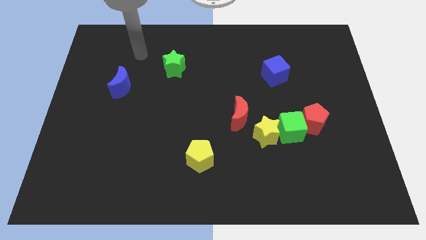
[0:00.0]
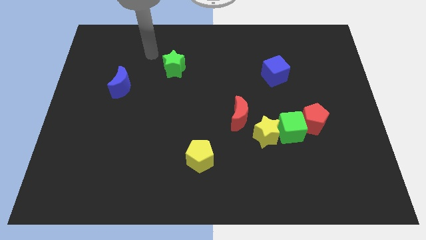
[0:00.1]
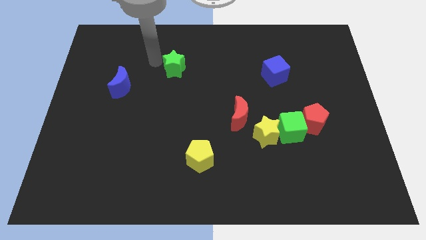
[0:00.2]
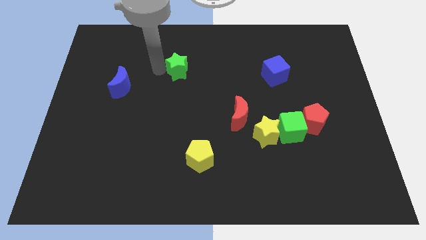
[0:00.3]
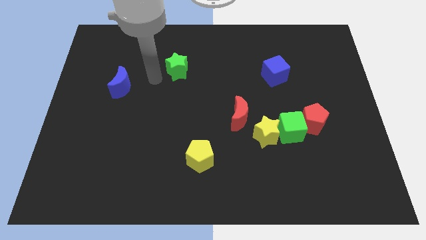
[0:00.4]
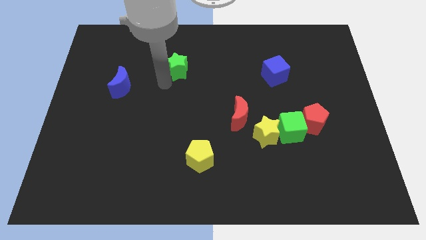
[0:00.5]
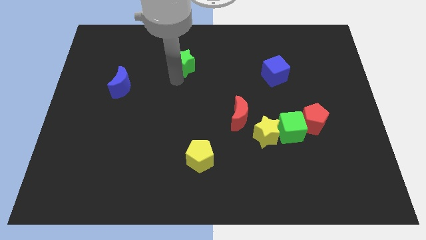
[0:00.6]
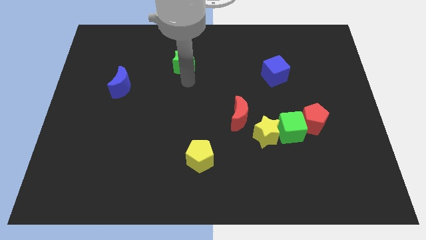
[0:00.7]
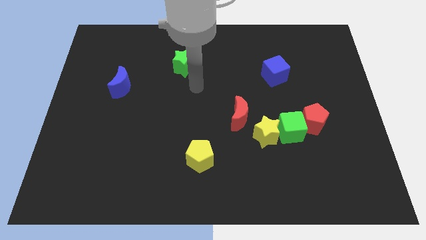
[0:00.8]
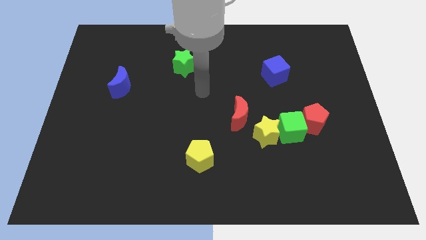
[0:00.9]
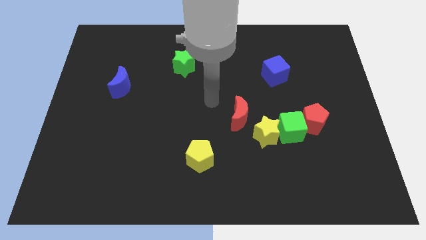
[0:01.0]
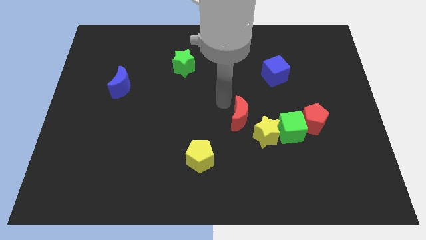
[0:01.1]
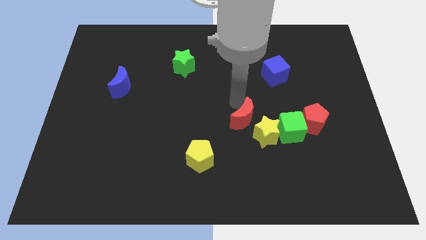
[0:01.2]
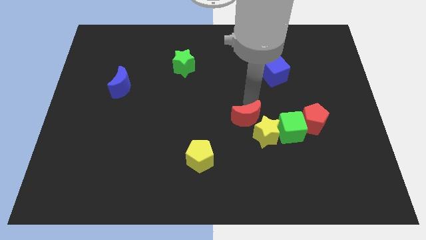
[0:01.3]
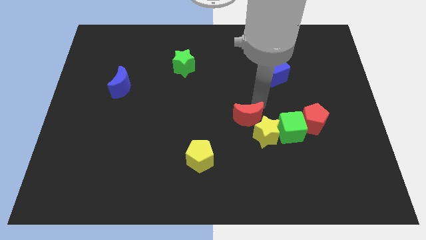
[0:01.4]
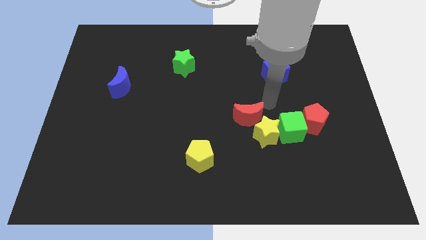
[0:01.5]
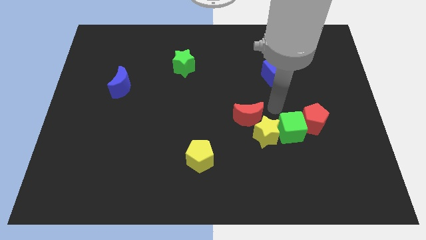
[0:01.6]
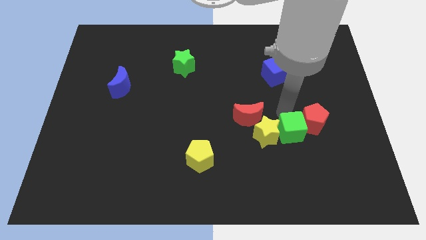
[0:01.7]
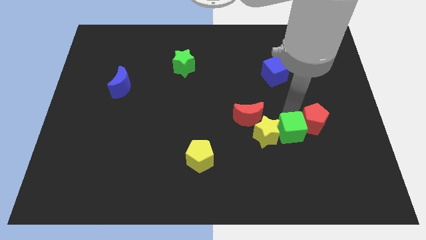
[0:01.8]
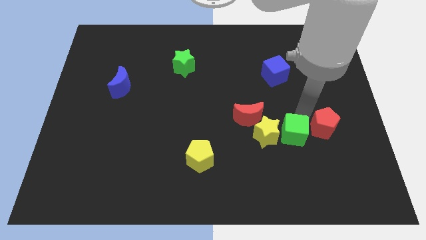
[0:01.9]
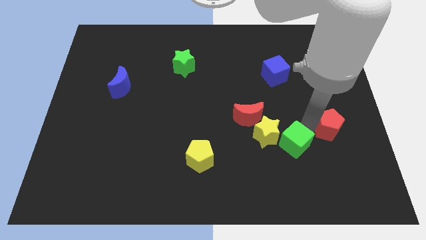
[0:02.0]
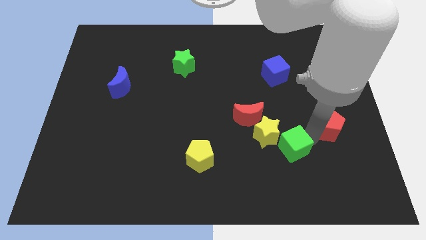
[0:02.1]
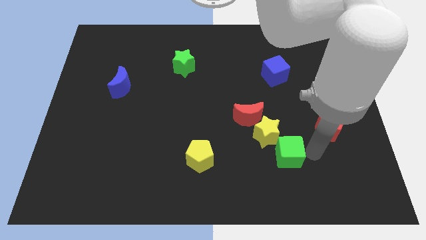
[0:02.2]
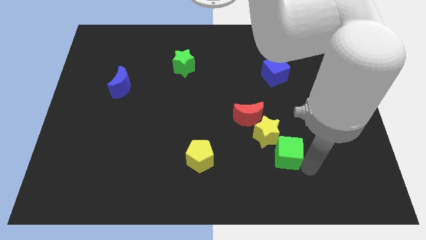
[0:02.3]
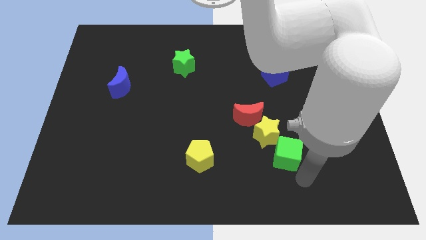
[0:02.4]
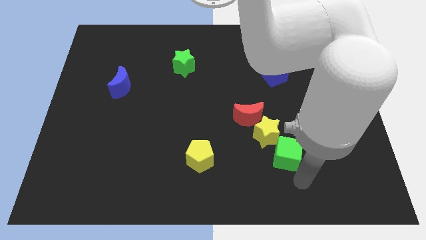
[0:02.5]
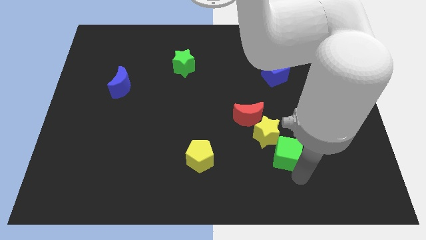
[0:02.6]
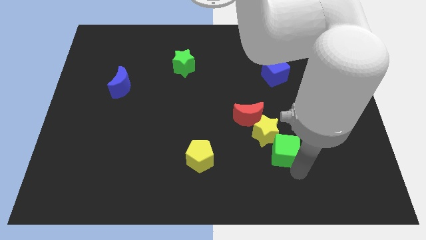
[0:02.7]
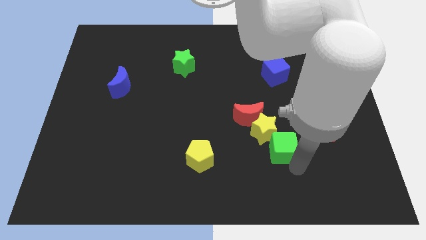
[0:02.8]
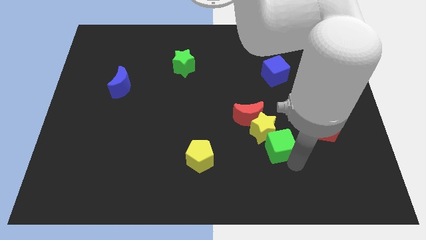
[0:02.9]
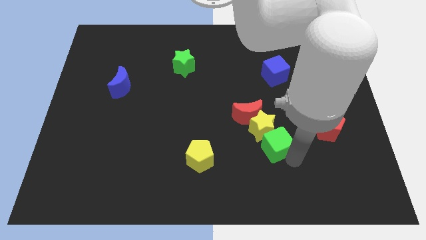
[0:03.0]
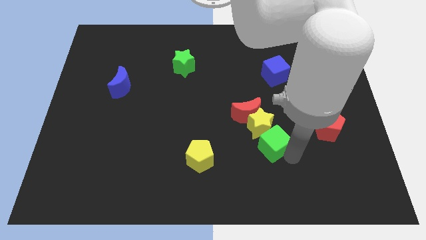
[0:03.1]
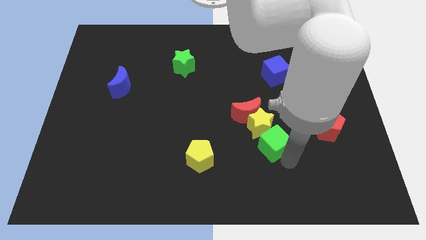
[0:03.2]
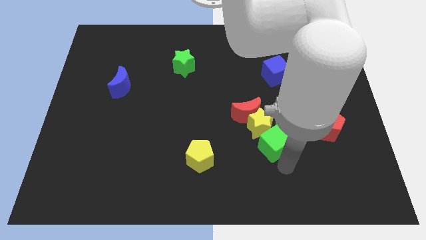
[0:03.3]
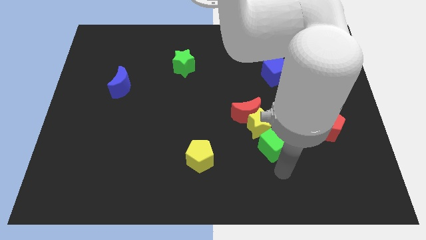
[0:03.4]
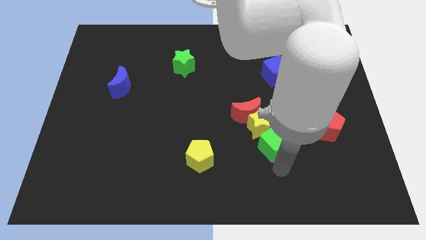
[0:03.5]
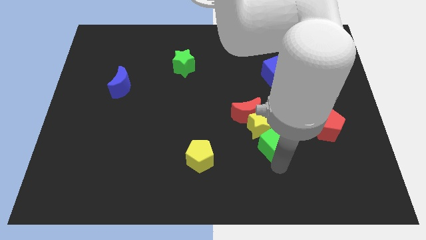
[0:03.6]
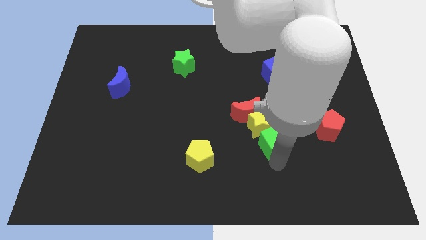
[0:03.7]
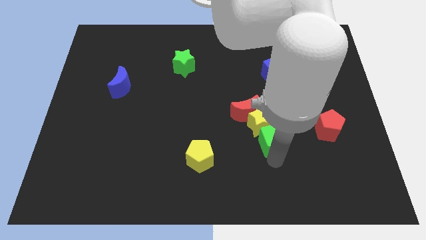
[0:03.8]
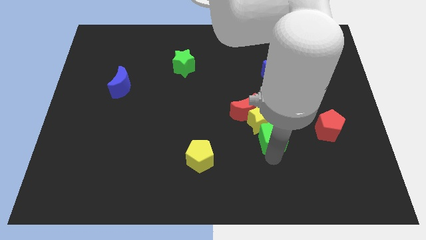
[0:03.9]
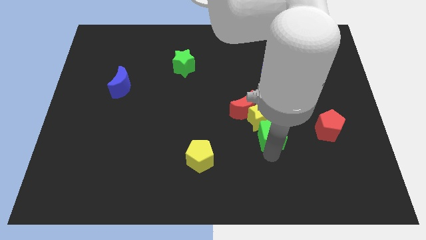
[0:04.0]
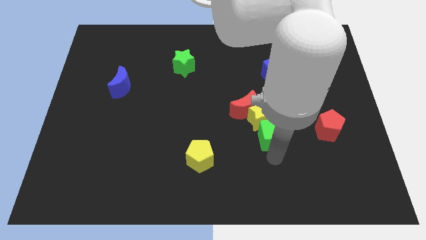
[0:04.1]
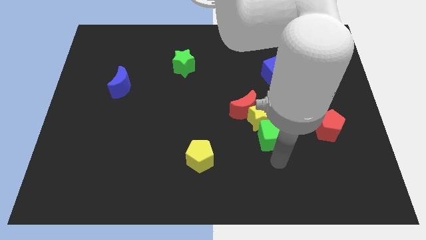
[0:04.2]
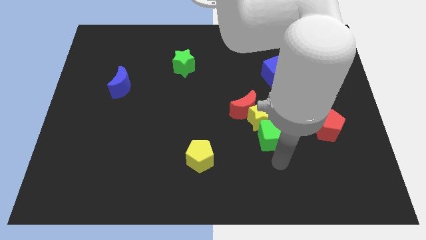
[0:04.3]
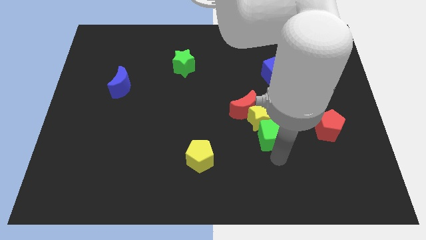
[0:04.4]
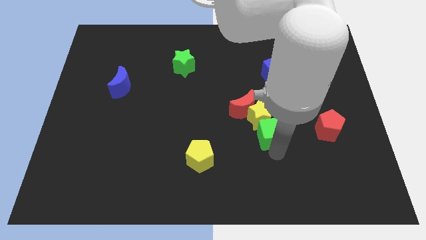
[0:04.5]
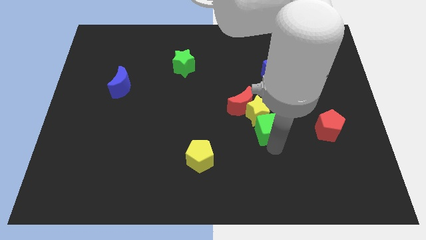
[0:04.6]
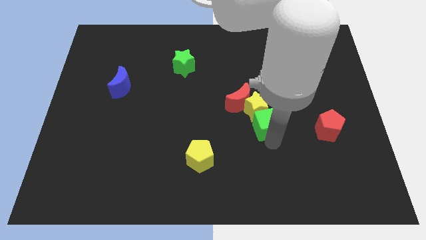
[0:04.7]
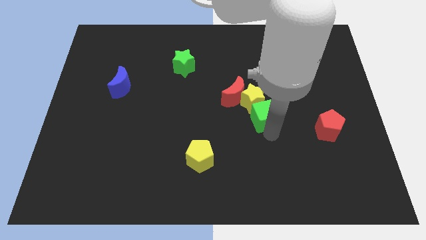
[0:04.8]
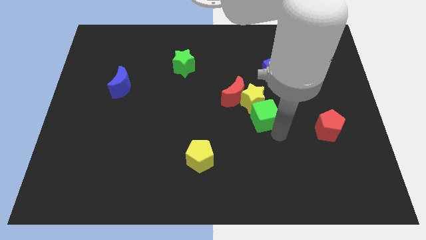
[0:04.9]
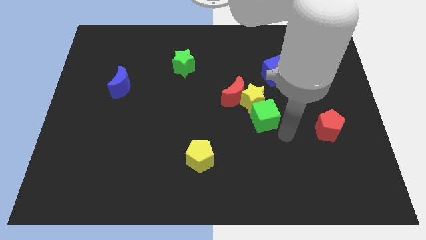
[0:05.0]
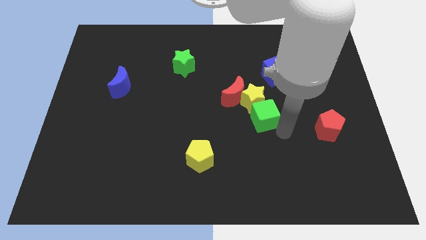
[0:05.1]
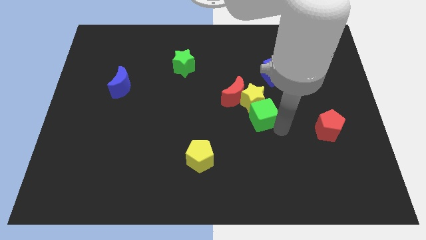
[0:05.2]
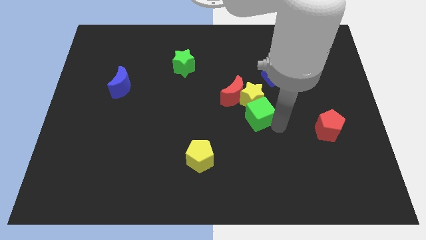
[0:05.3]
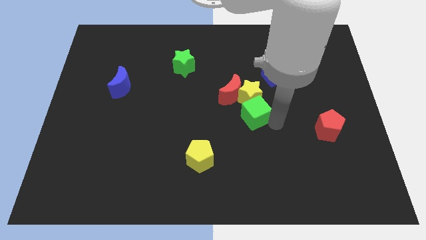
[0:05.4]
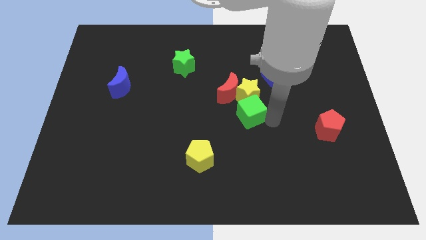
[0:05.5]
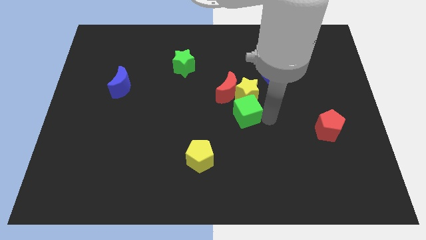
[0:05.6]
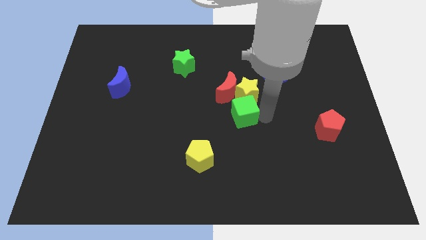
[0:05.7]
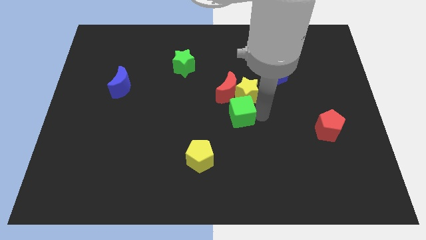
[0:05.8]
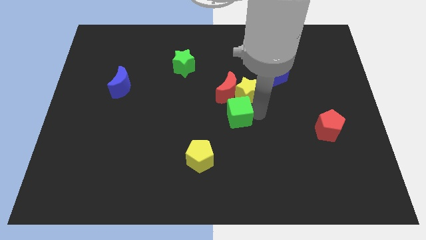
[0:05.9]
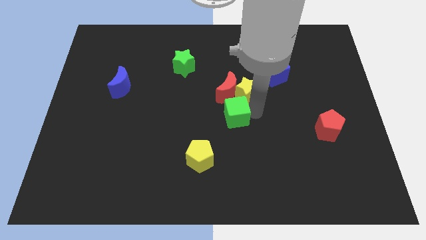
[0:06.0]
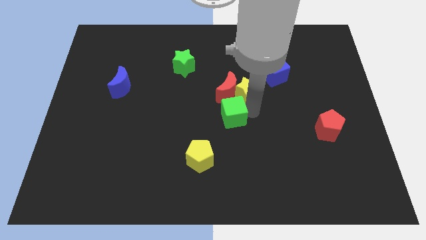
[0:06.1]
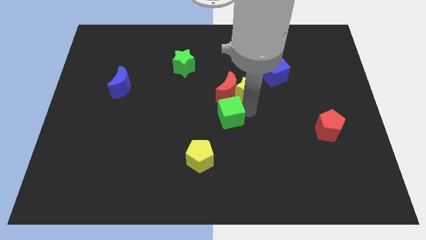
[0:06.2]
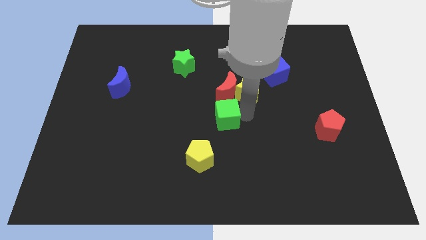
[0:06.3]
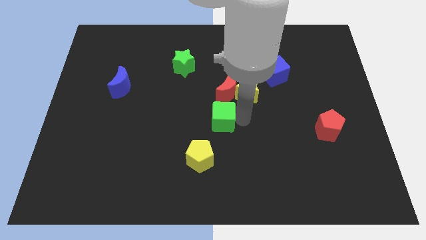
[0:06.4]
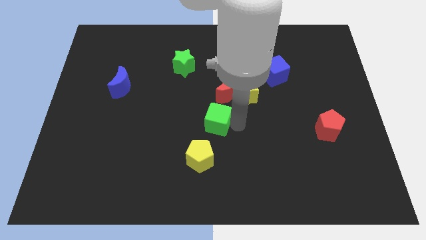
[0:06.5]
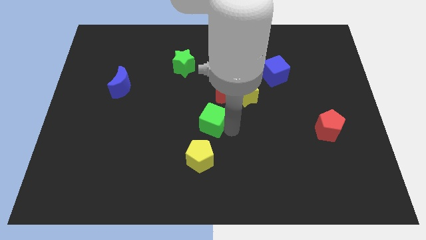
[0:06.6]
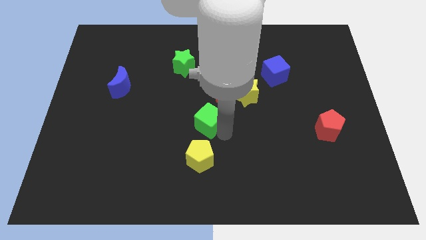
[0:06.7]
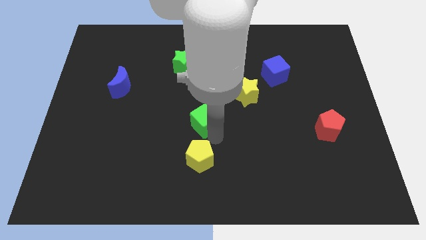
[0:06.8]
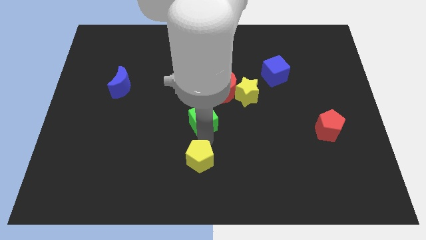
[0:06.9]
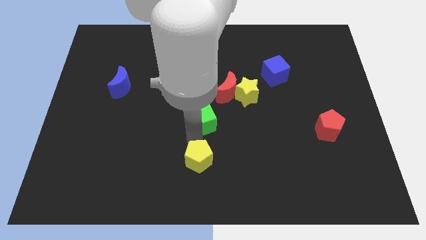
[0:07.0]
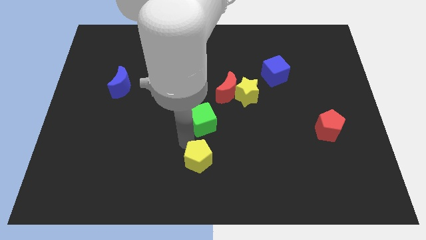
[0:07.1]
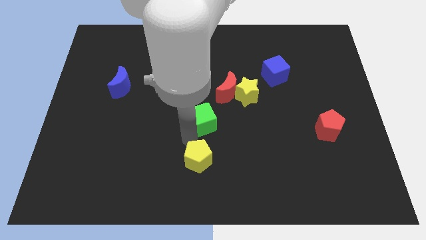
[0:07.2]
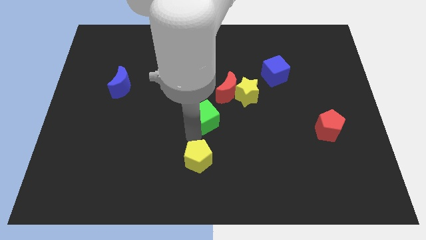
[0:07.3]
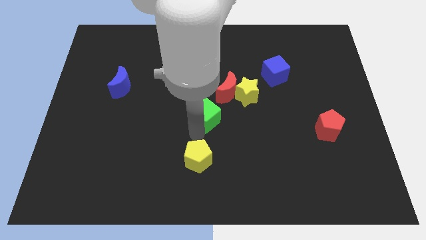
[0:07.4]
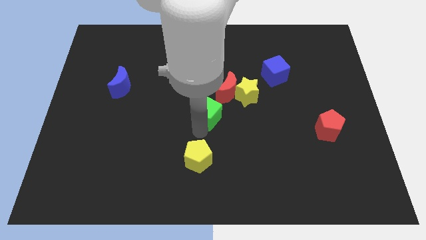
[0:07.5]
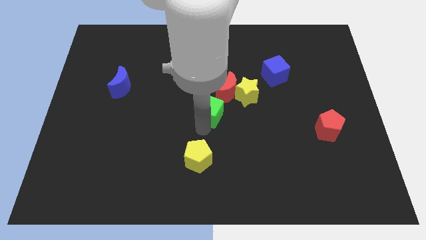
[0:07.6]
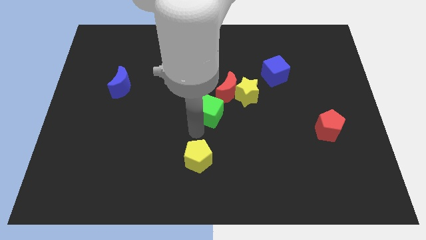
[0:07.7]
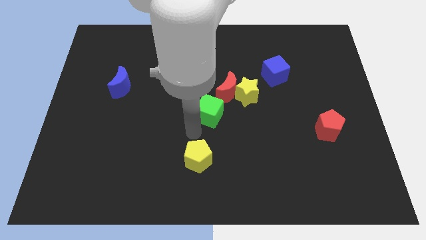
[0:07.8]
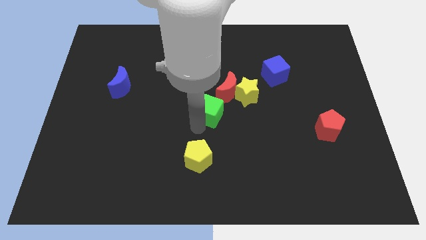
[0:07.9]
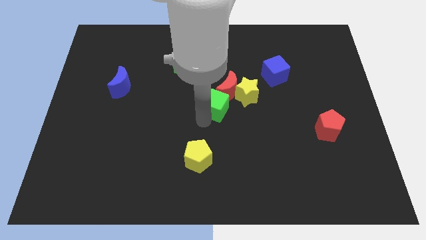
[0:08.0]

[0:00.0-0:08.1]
put the green cube close to the red moon

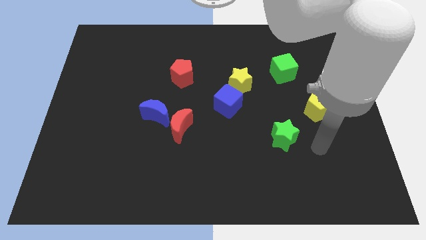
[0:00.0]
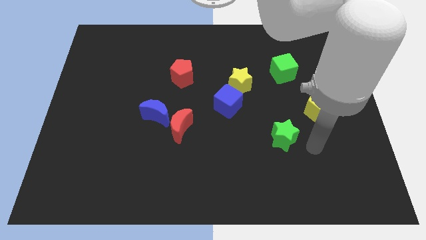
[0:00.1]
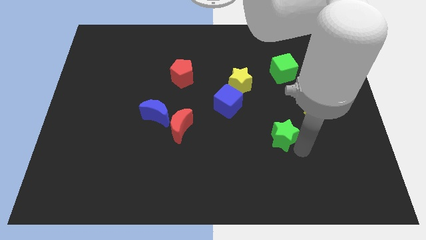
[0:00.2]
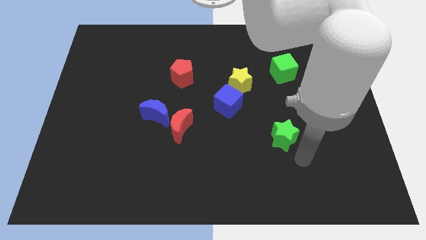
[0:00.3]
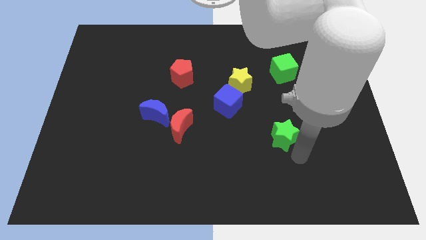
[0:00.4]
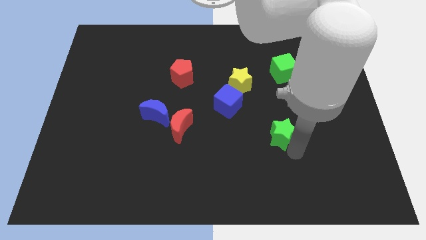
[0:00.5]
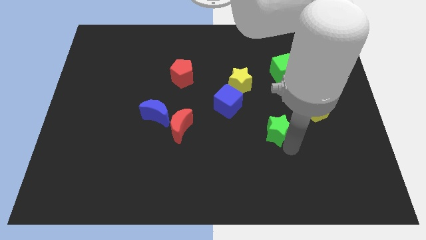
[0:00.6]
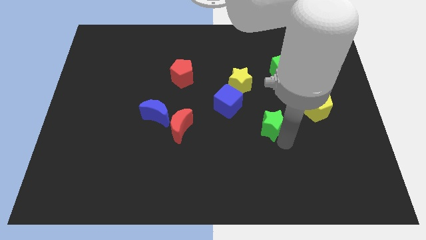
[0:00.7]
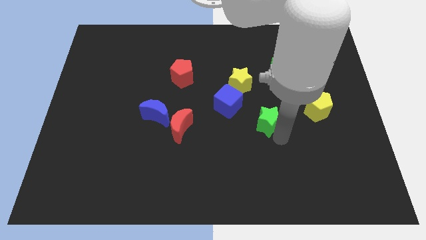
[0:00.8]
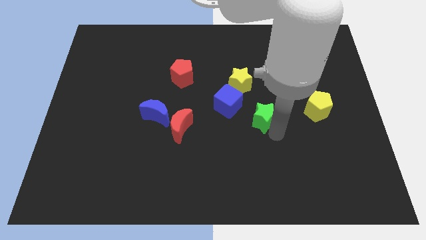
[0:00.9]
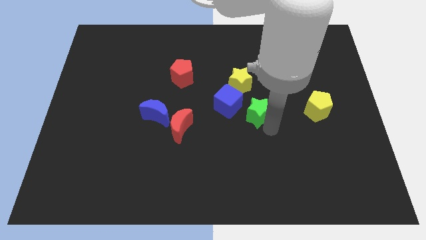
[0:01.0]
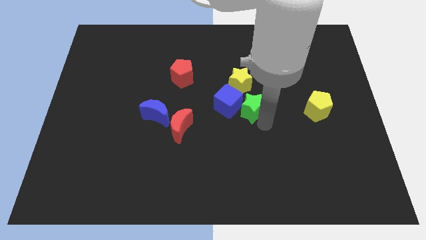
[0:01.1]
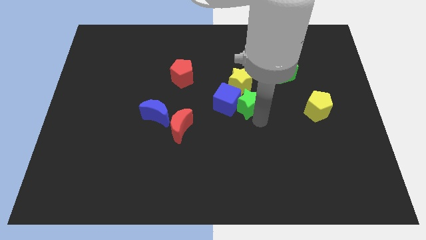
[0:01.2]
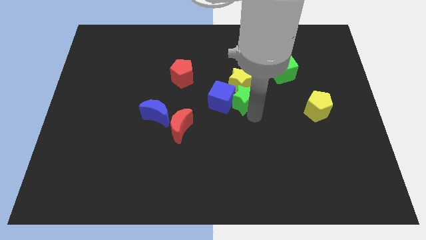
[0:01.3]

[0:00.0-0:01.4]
put the green star towards the yellow star
